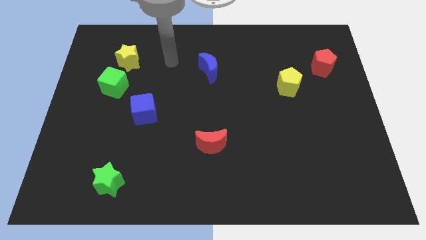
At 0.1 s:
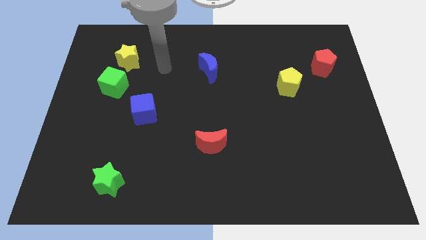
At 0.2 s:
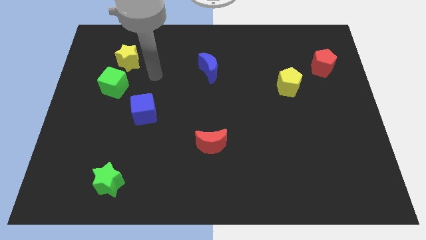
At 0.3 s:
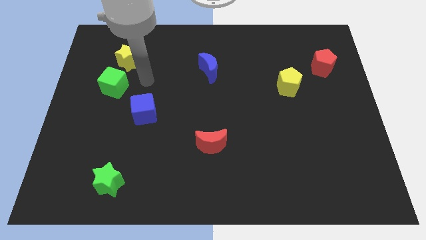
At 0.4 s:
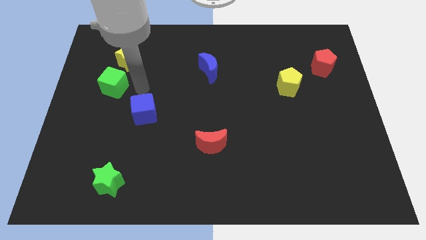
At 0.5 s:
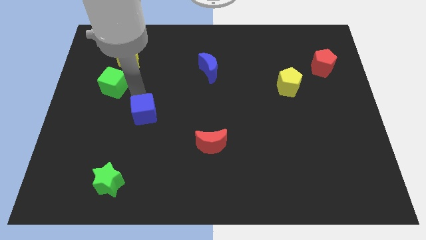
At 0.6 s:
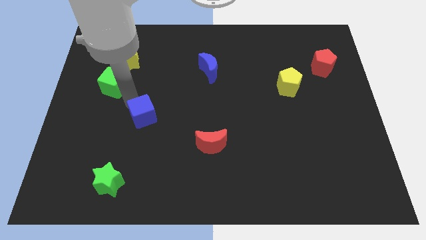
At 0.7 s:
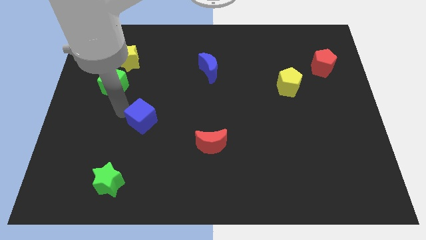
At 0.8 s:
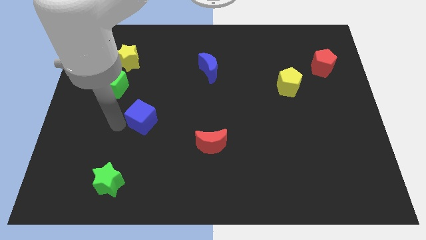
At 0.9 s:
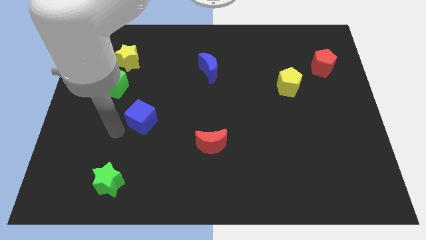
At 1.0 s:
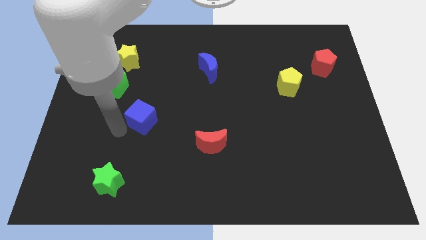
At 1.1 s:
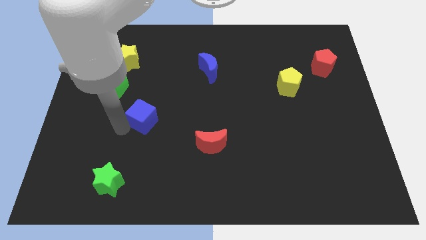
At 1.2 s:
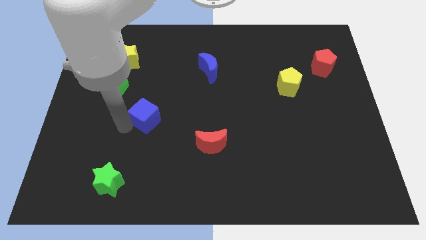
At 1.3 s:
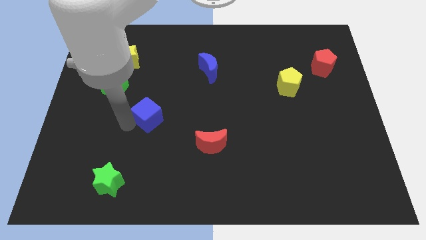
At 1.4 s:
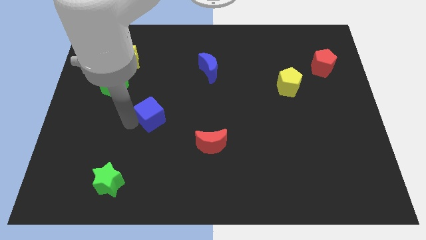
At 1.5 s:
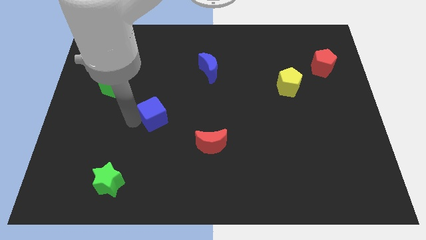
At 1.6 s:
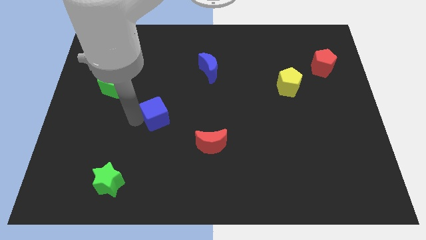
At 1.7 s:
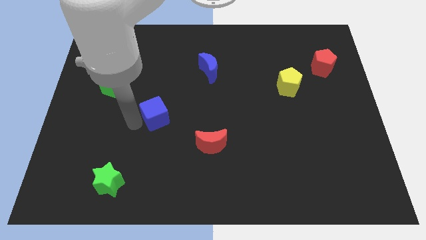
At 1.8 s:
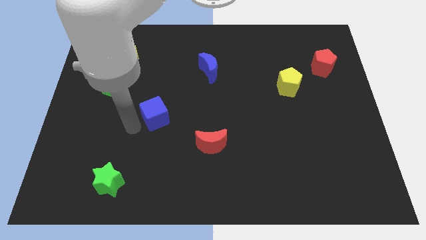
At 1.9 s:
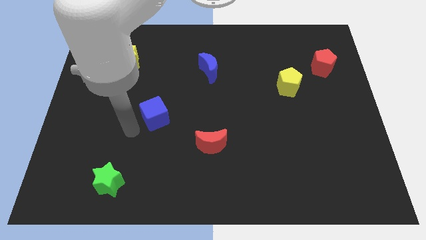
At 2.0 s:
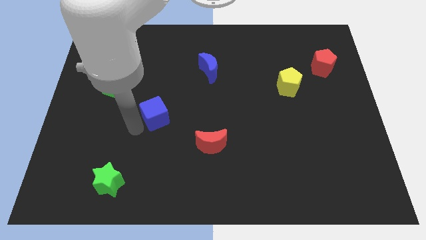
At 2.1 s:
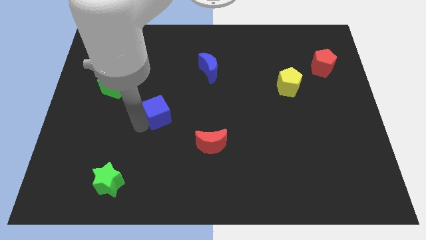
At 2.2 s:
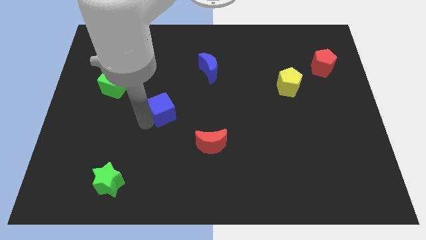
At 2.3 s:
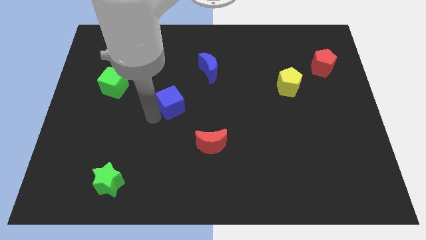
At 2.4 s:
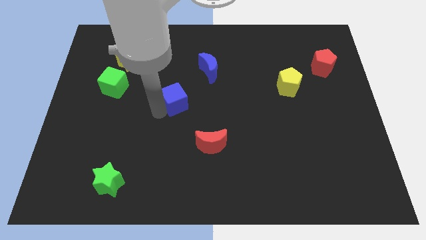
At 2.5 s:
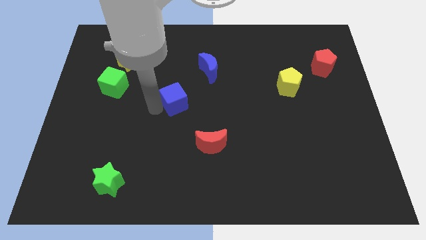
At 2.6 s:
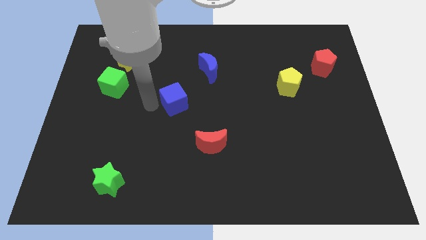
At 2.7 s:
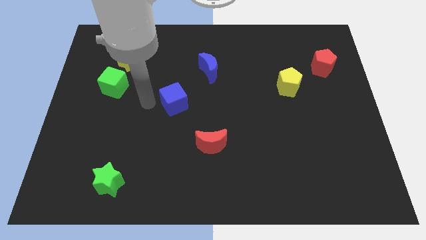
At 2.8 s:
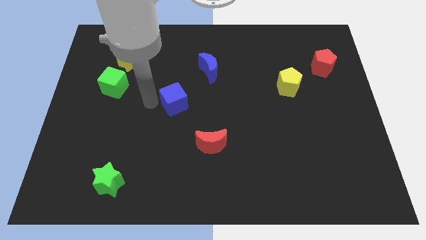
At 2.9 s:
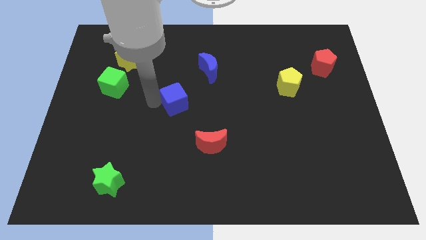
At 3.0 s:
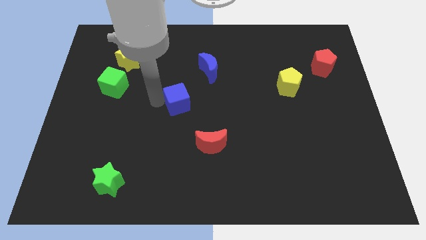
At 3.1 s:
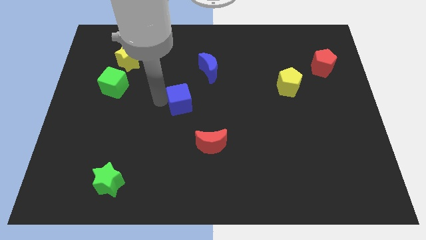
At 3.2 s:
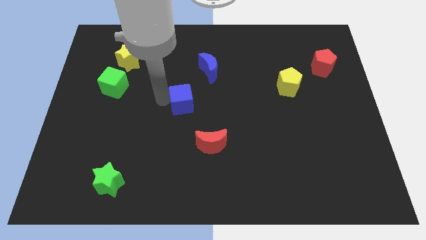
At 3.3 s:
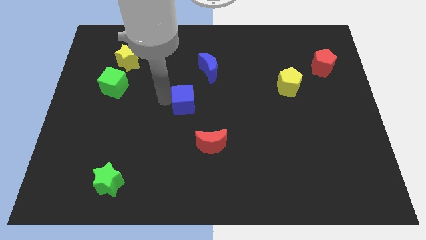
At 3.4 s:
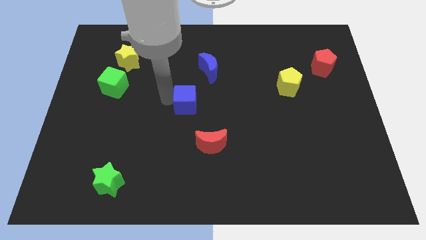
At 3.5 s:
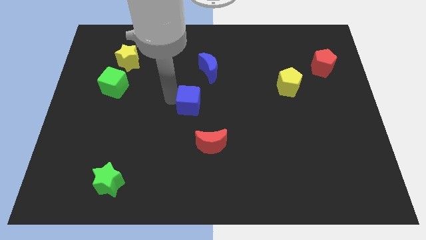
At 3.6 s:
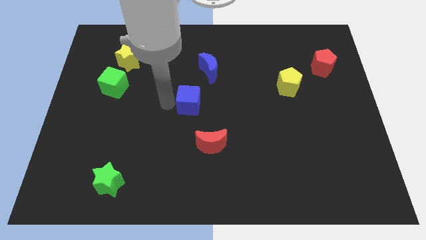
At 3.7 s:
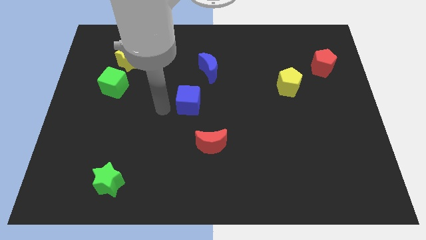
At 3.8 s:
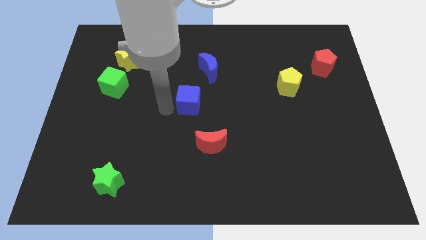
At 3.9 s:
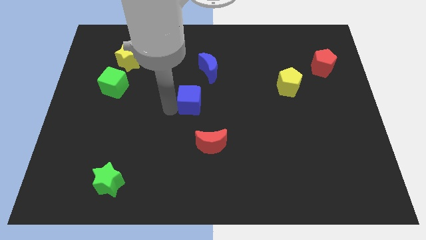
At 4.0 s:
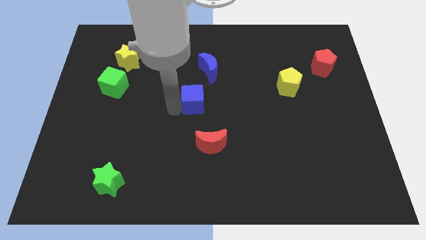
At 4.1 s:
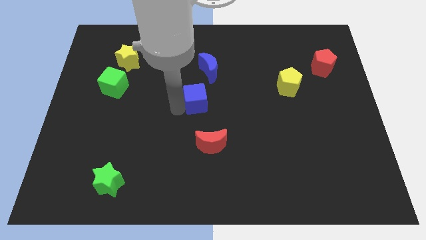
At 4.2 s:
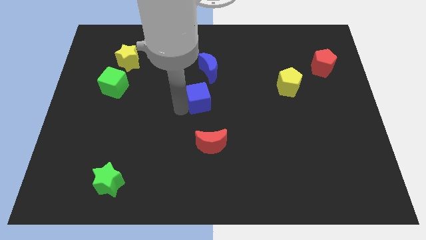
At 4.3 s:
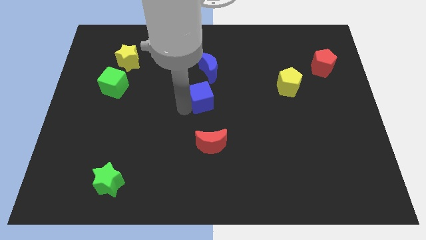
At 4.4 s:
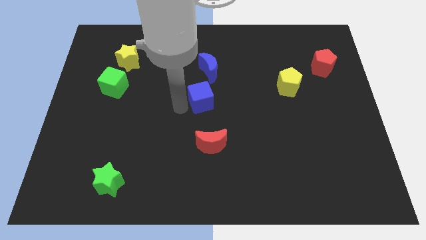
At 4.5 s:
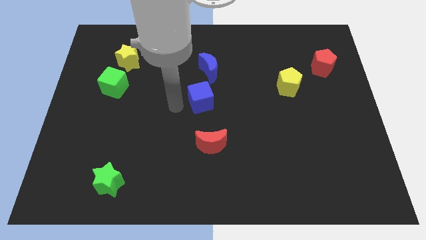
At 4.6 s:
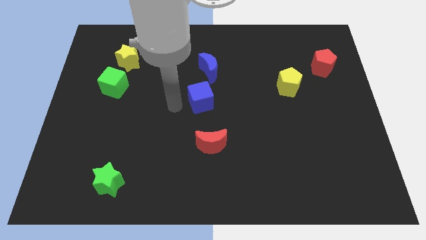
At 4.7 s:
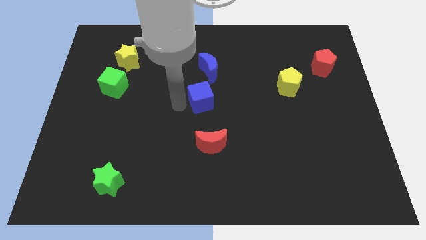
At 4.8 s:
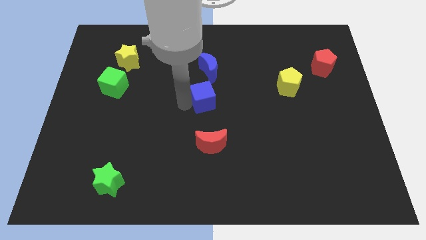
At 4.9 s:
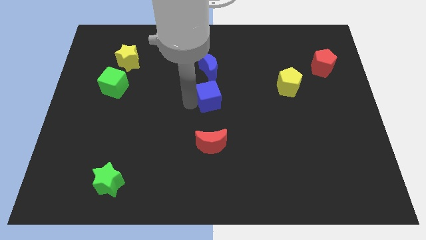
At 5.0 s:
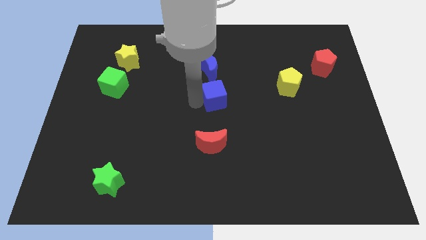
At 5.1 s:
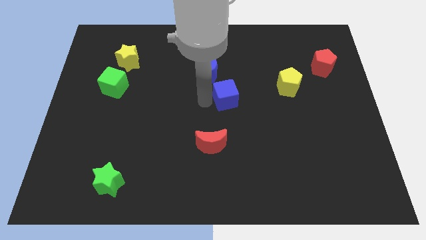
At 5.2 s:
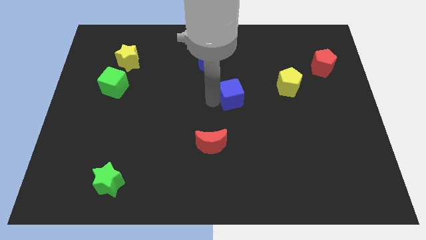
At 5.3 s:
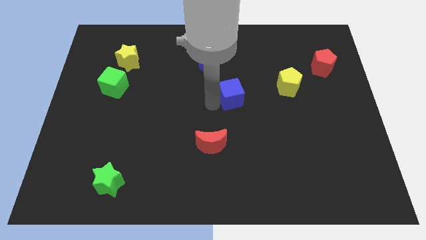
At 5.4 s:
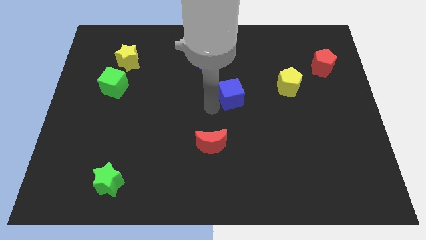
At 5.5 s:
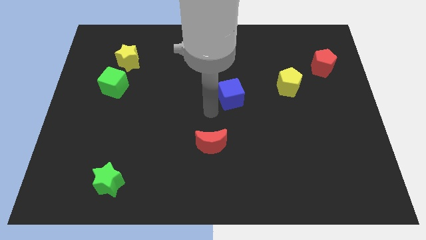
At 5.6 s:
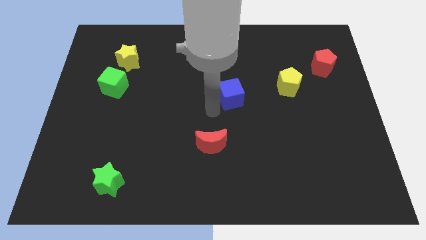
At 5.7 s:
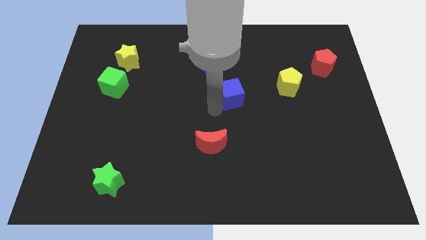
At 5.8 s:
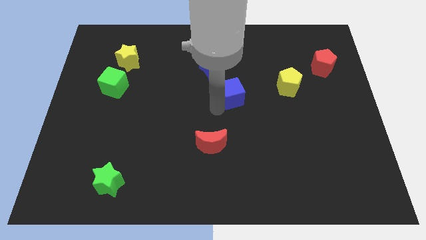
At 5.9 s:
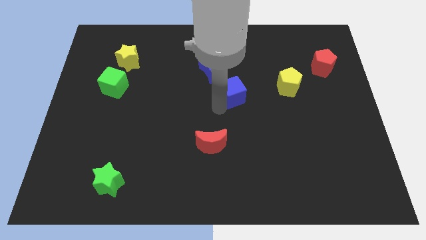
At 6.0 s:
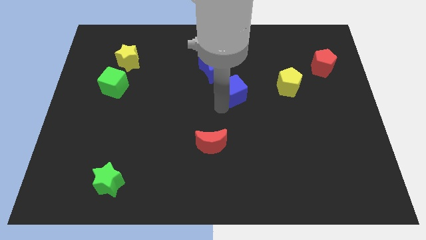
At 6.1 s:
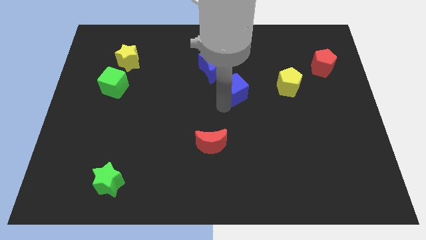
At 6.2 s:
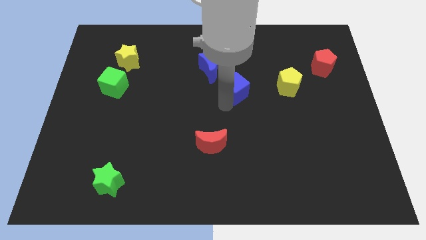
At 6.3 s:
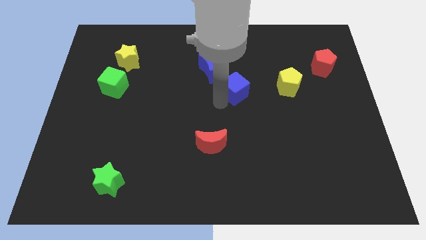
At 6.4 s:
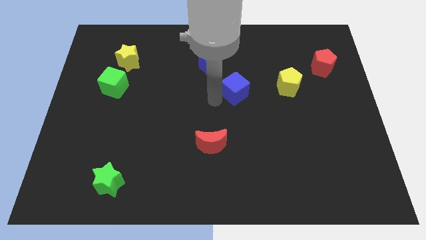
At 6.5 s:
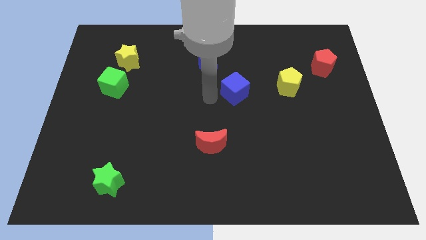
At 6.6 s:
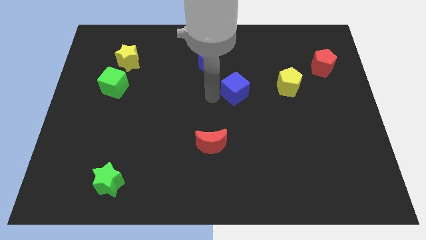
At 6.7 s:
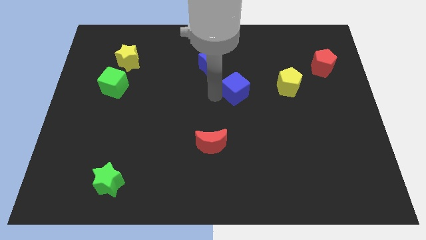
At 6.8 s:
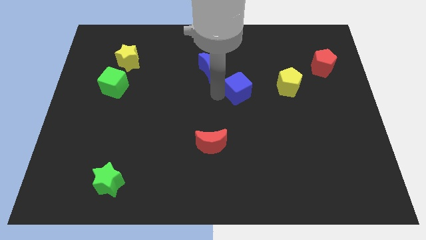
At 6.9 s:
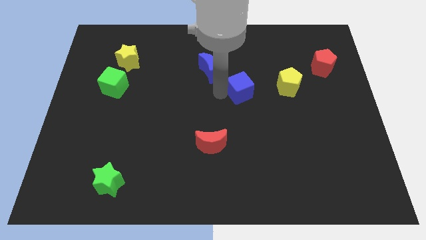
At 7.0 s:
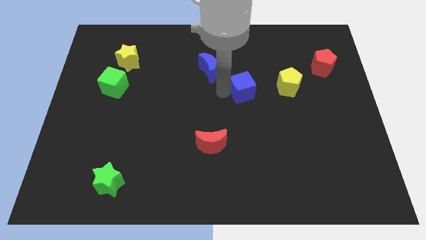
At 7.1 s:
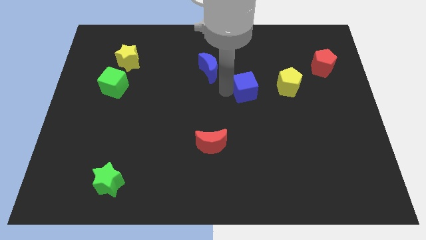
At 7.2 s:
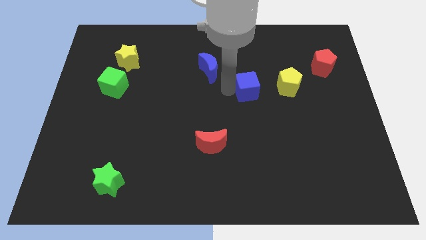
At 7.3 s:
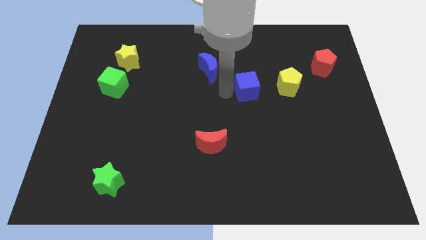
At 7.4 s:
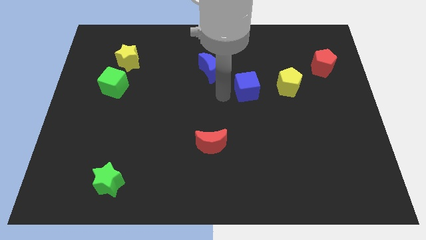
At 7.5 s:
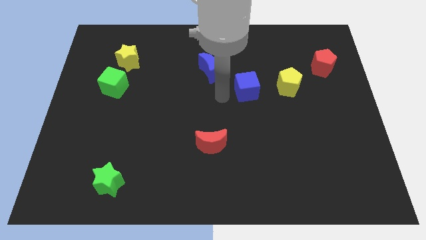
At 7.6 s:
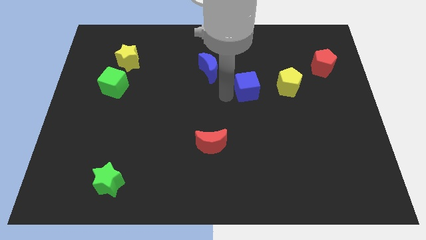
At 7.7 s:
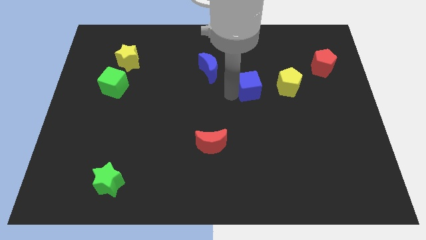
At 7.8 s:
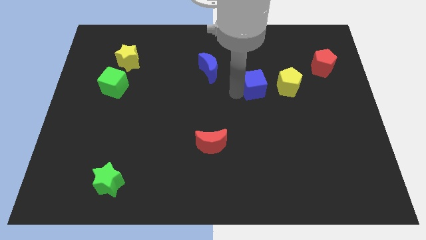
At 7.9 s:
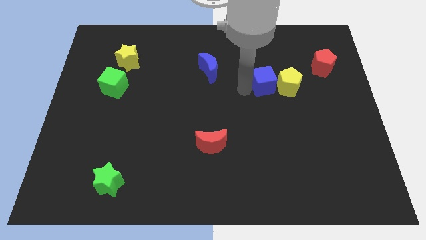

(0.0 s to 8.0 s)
put the blue cube next to the yellow pentagon
